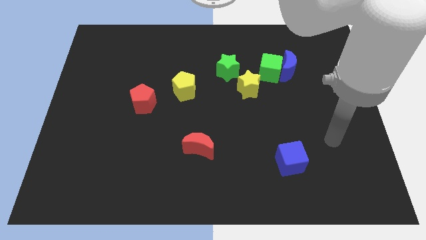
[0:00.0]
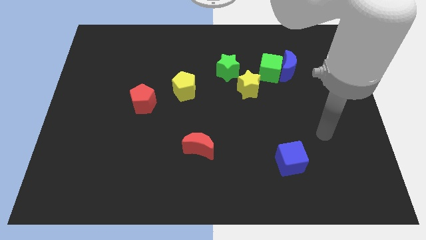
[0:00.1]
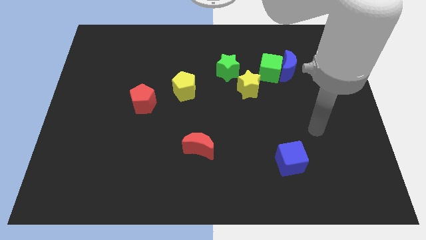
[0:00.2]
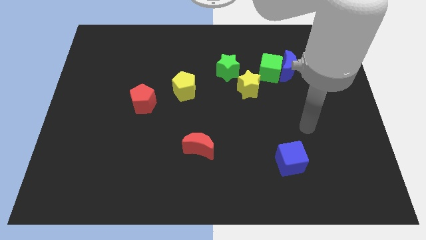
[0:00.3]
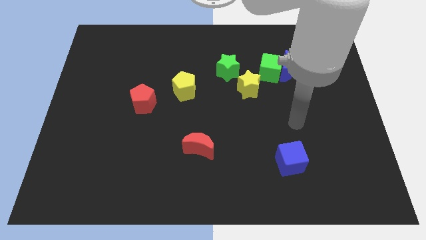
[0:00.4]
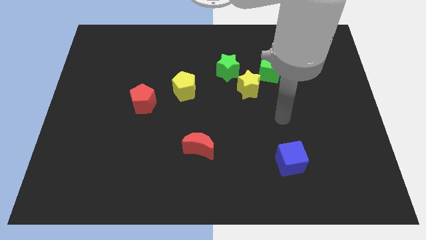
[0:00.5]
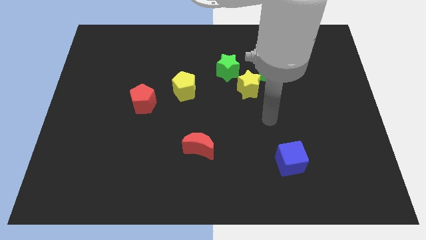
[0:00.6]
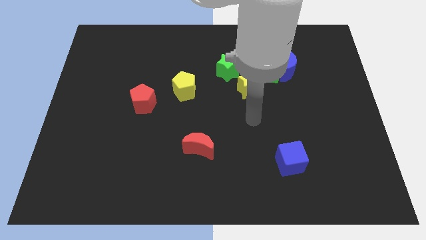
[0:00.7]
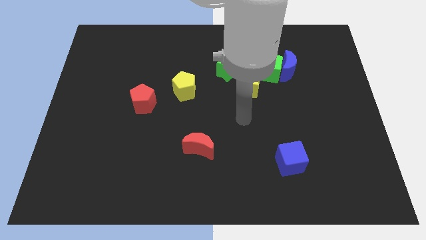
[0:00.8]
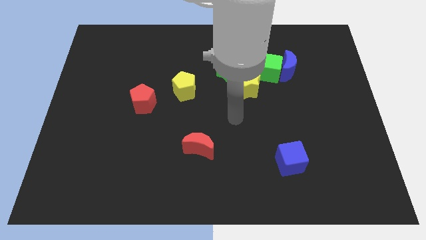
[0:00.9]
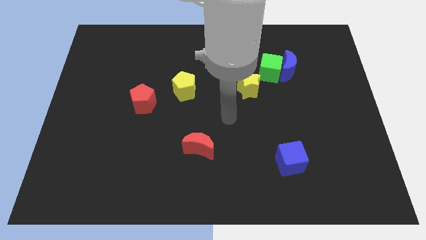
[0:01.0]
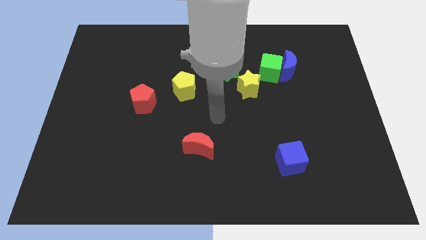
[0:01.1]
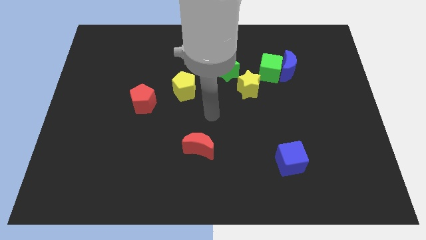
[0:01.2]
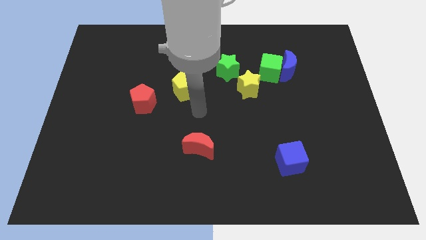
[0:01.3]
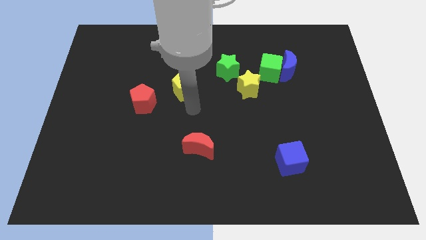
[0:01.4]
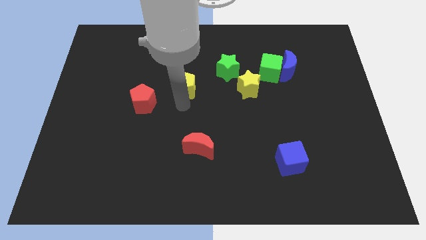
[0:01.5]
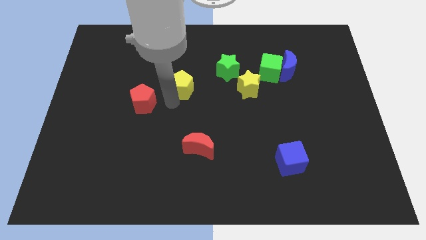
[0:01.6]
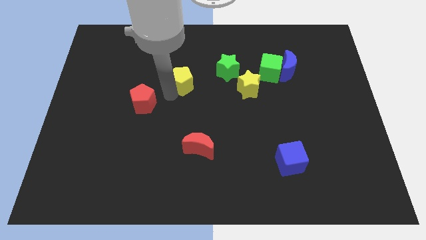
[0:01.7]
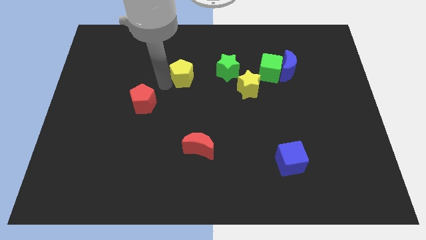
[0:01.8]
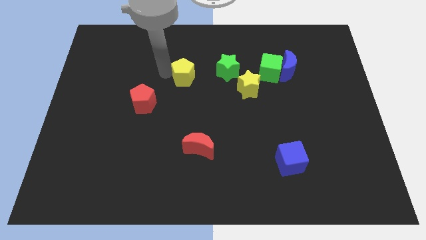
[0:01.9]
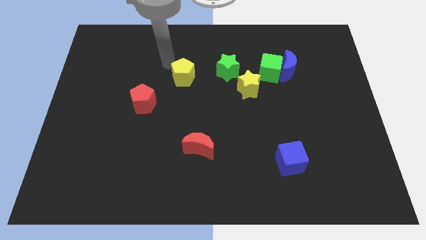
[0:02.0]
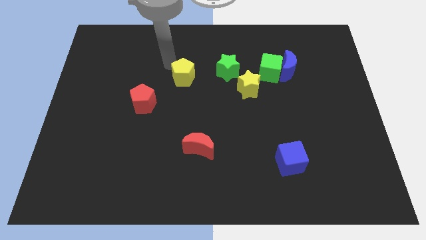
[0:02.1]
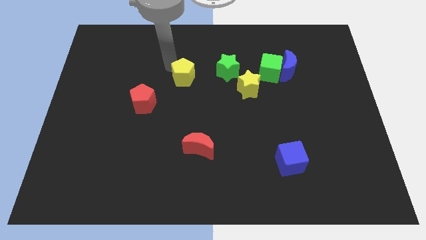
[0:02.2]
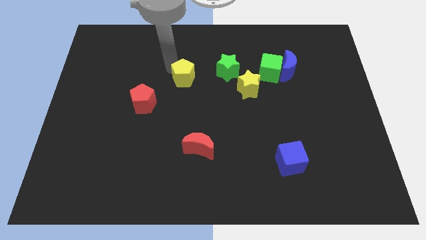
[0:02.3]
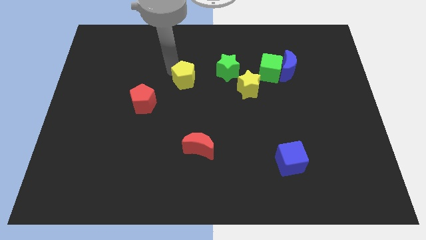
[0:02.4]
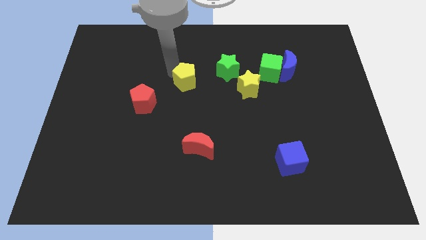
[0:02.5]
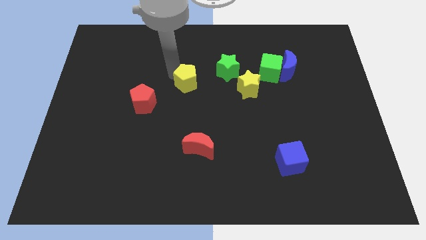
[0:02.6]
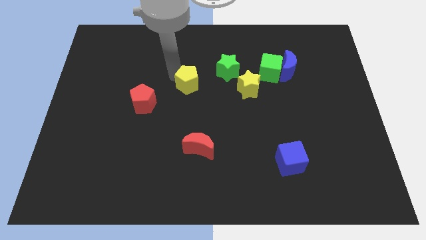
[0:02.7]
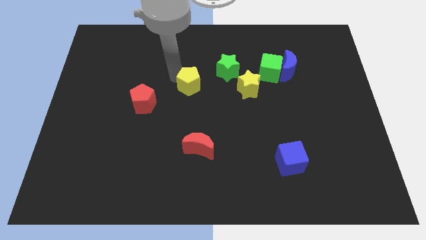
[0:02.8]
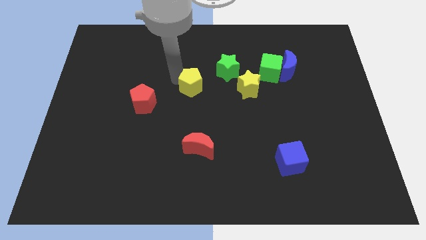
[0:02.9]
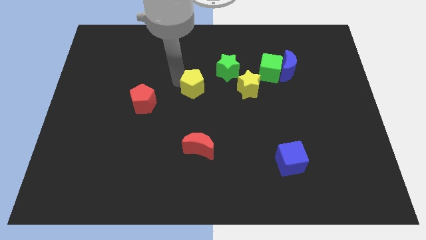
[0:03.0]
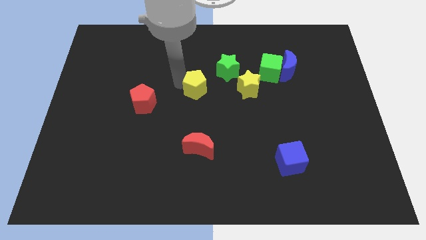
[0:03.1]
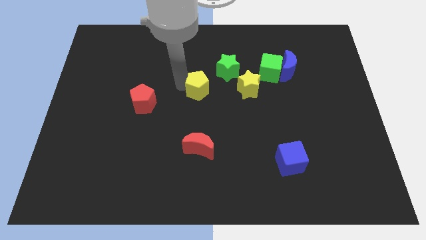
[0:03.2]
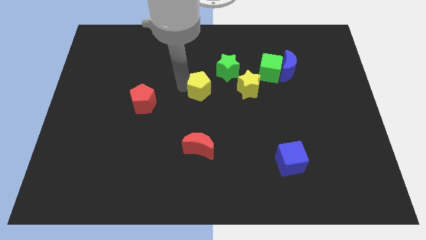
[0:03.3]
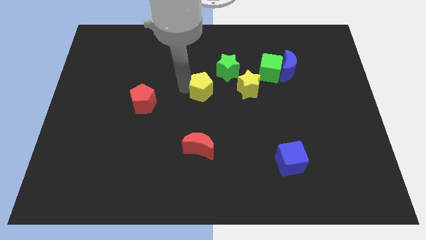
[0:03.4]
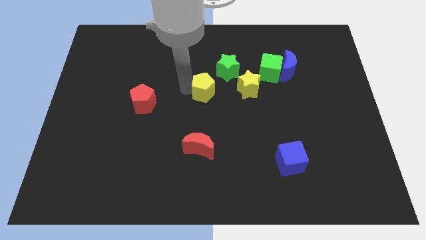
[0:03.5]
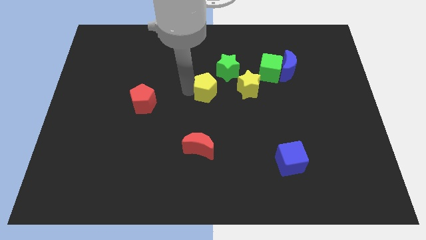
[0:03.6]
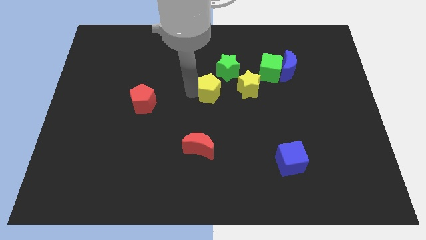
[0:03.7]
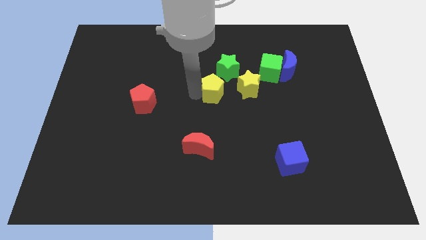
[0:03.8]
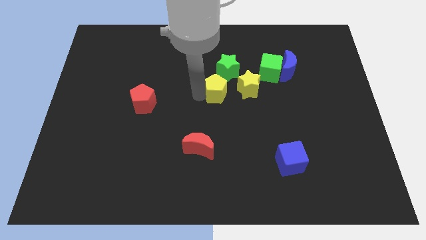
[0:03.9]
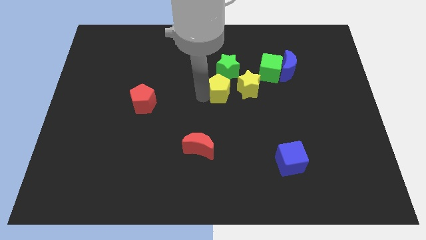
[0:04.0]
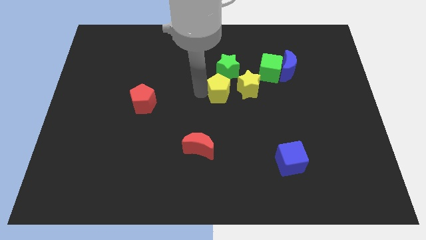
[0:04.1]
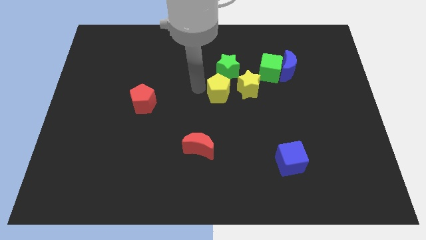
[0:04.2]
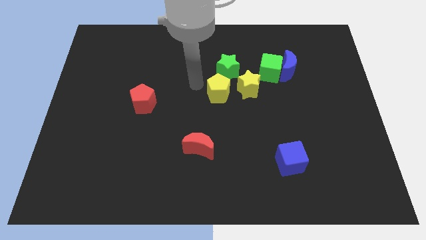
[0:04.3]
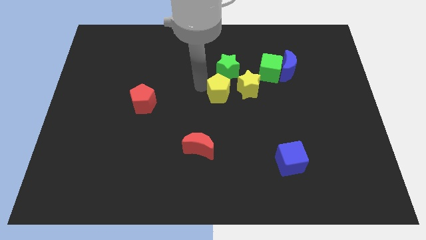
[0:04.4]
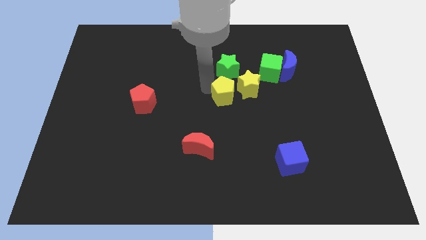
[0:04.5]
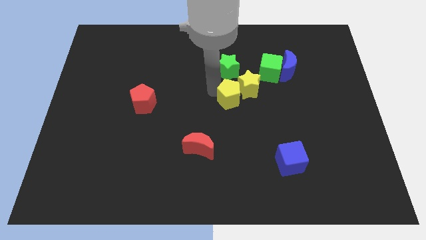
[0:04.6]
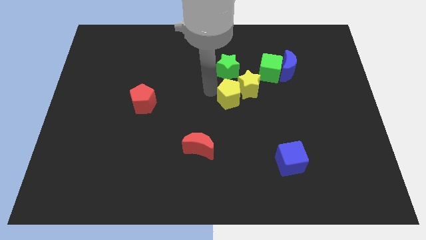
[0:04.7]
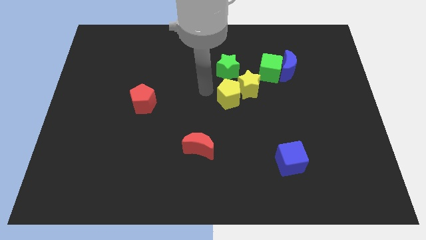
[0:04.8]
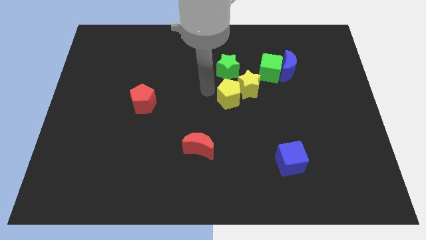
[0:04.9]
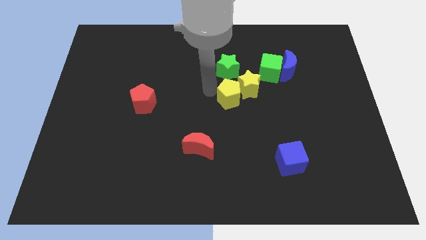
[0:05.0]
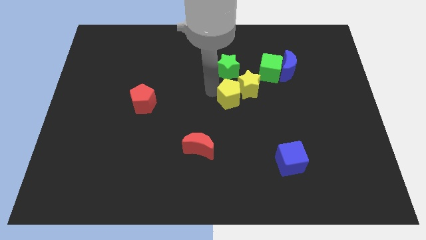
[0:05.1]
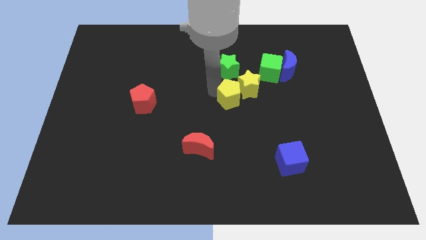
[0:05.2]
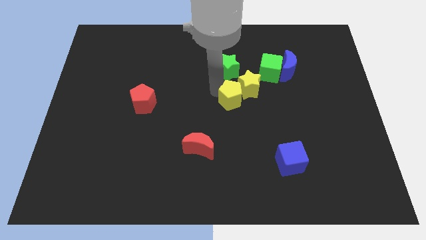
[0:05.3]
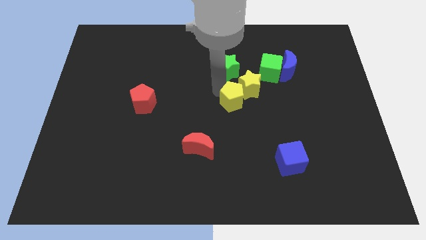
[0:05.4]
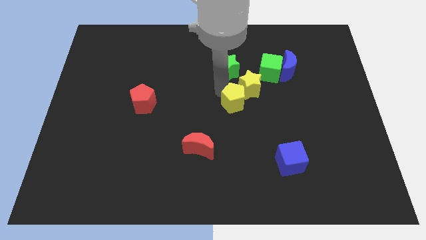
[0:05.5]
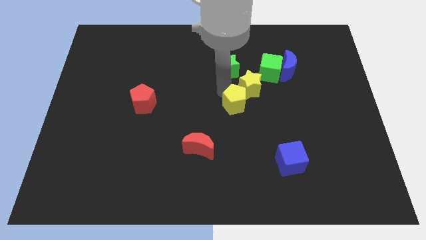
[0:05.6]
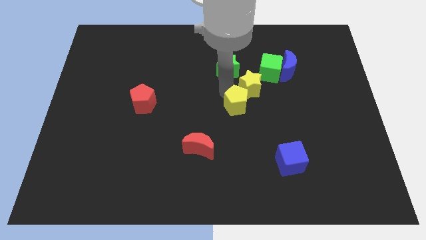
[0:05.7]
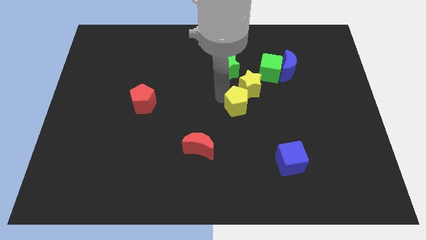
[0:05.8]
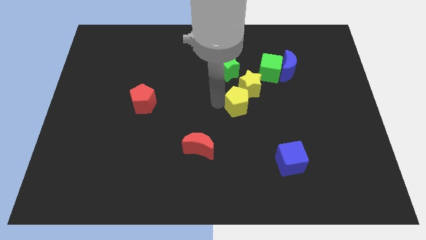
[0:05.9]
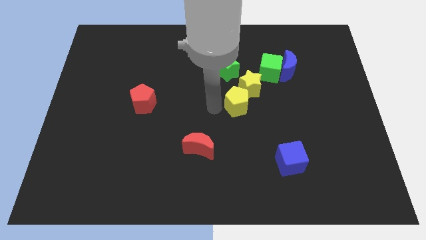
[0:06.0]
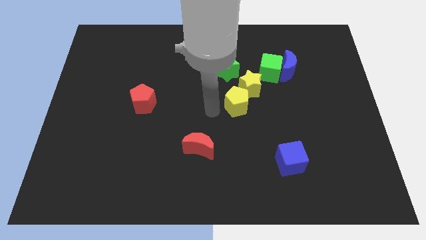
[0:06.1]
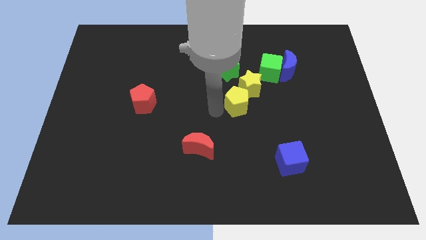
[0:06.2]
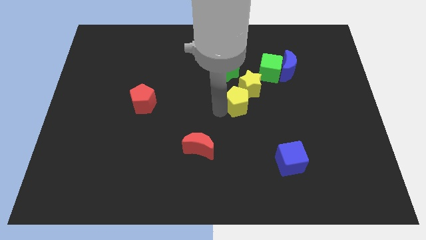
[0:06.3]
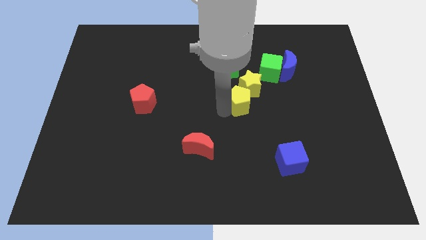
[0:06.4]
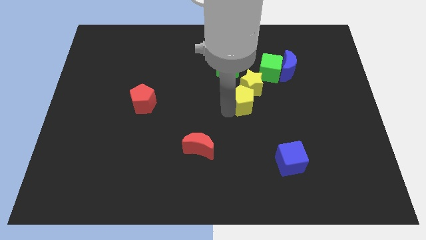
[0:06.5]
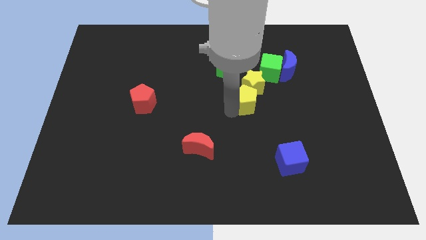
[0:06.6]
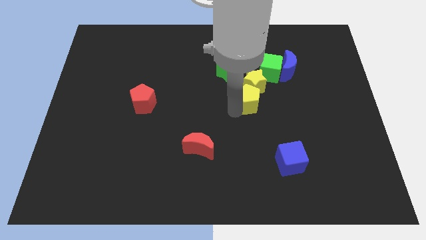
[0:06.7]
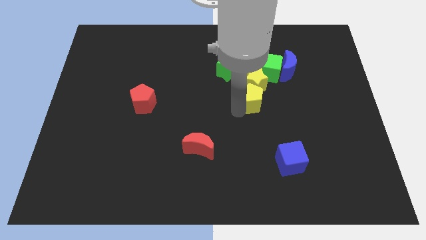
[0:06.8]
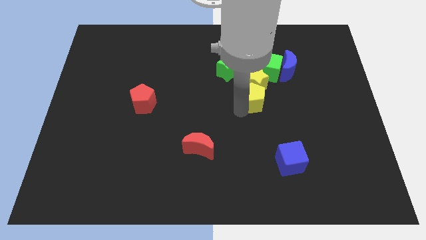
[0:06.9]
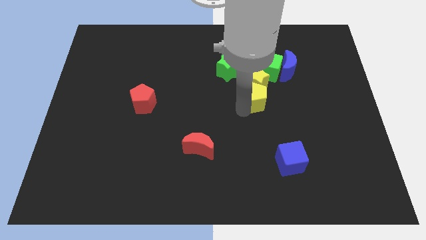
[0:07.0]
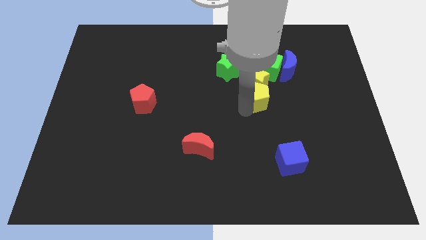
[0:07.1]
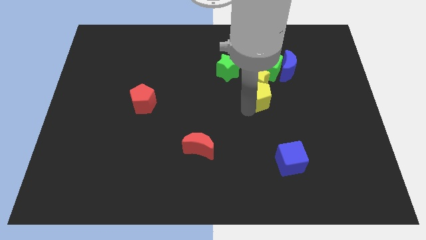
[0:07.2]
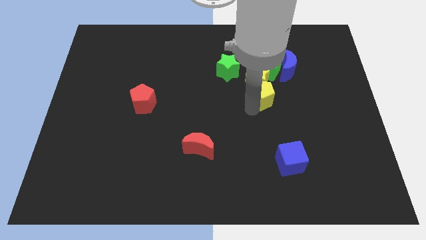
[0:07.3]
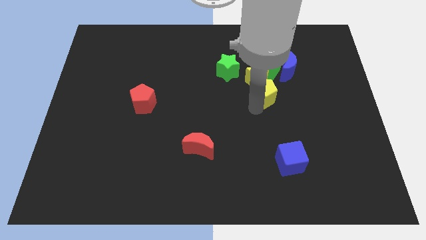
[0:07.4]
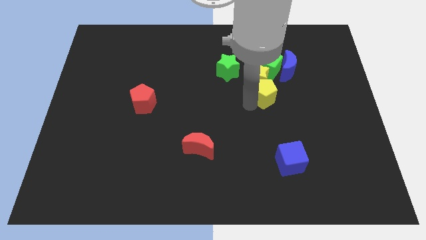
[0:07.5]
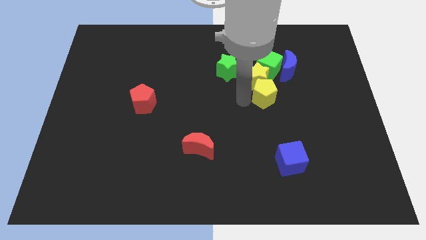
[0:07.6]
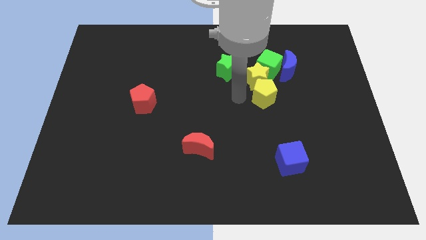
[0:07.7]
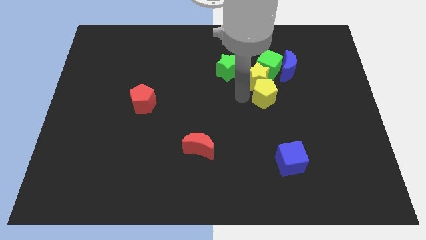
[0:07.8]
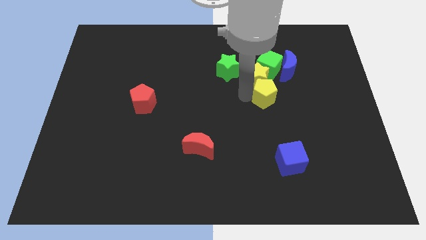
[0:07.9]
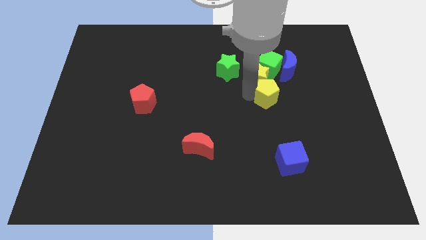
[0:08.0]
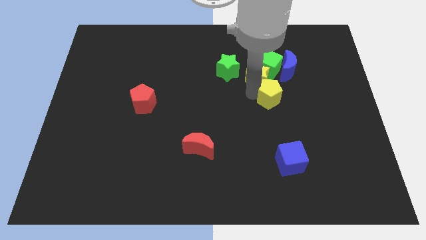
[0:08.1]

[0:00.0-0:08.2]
slide the yellow pentagon right
